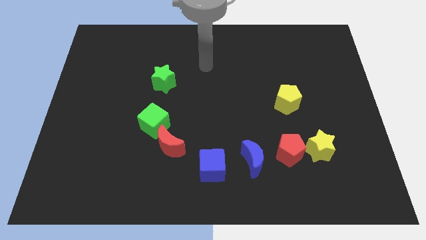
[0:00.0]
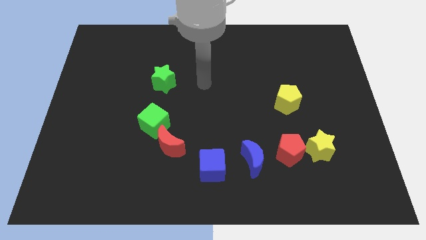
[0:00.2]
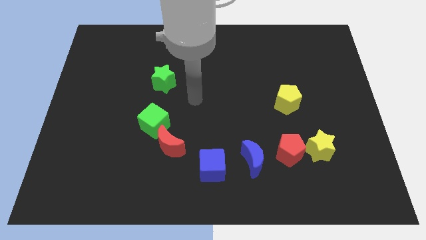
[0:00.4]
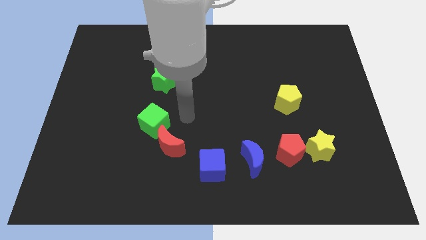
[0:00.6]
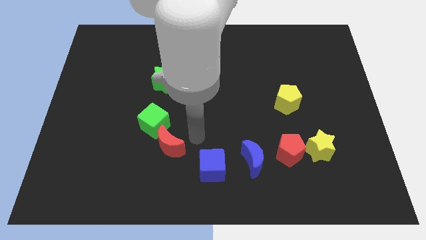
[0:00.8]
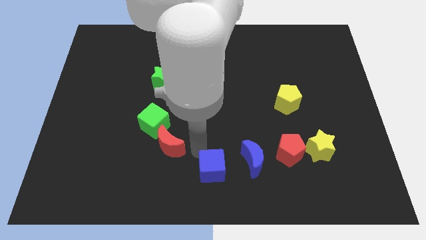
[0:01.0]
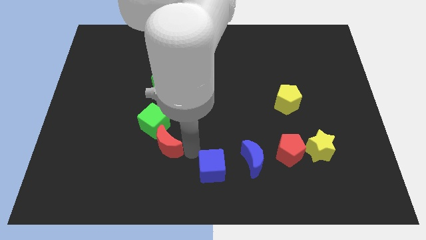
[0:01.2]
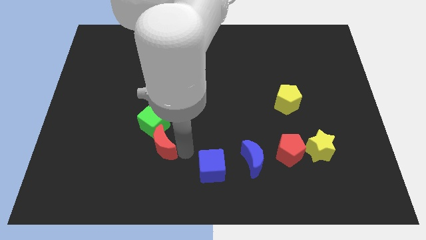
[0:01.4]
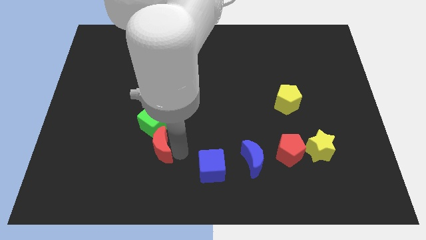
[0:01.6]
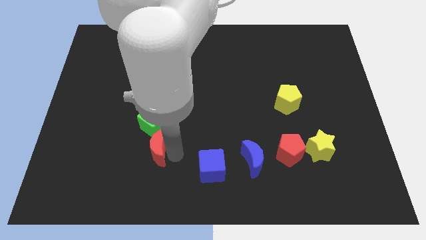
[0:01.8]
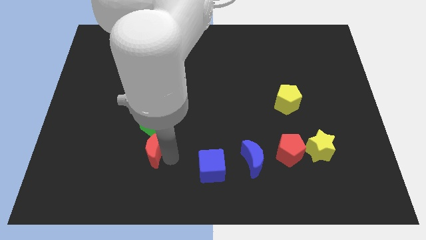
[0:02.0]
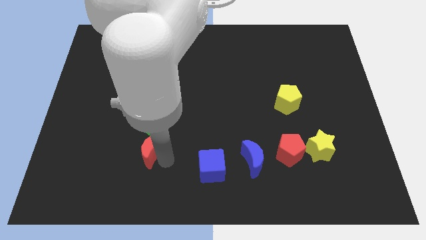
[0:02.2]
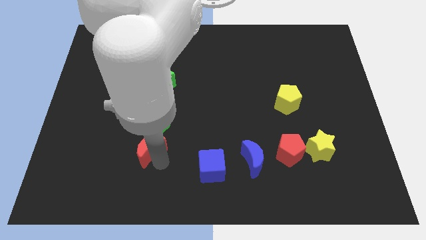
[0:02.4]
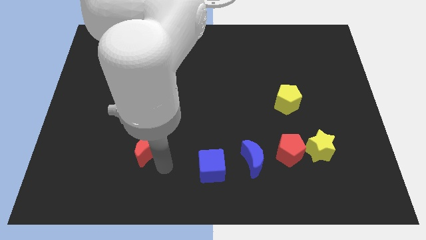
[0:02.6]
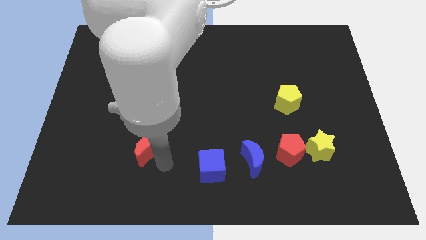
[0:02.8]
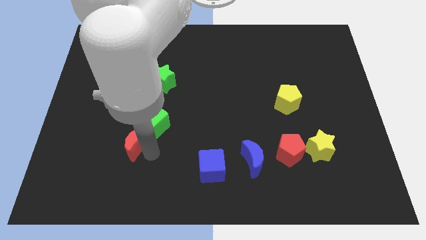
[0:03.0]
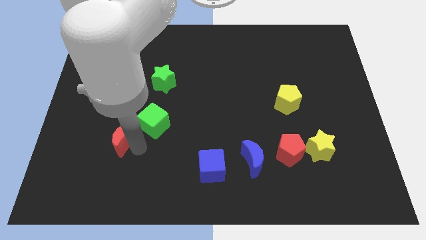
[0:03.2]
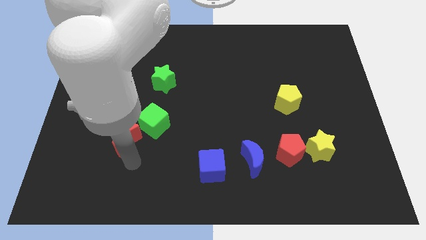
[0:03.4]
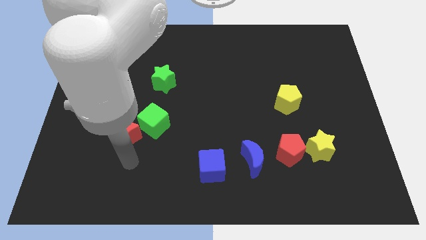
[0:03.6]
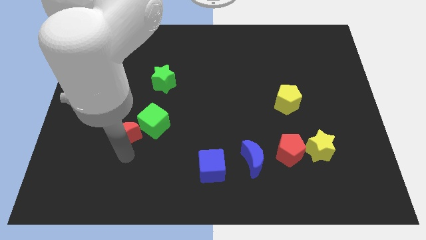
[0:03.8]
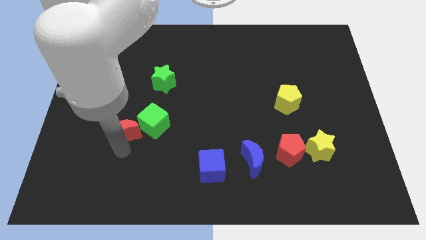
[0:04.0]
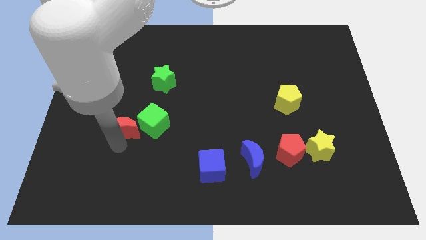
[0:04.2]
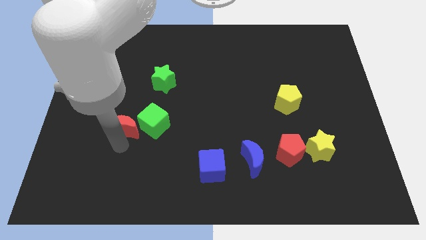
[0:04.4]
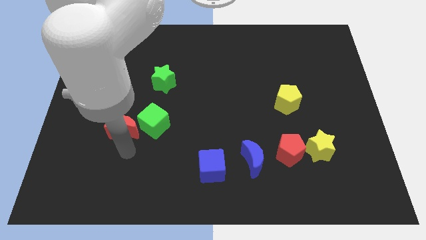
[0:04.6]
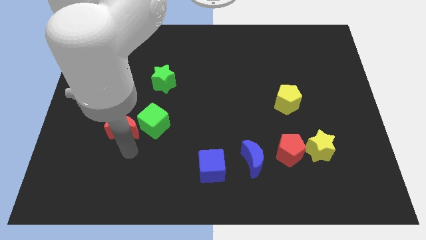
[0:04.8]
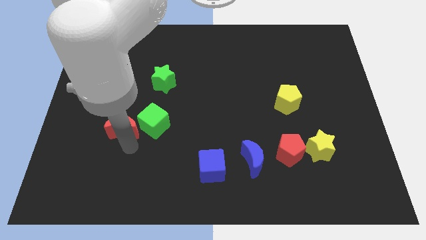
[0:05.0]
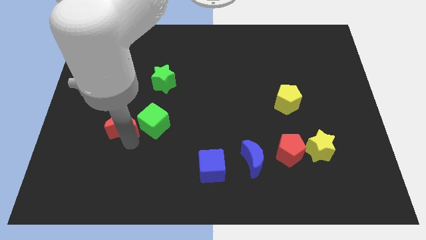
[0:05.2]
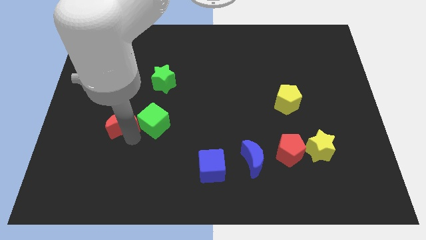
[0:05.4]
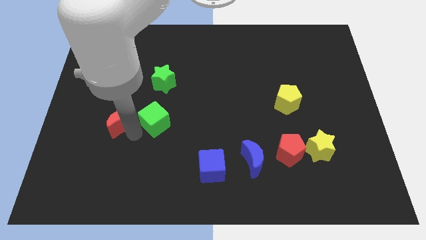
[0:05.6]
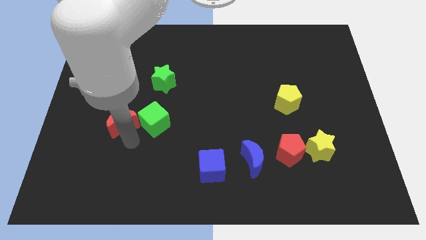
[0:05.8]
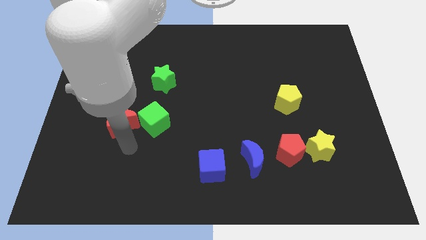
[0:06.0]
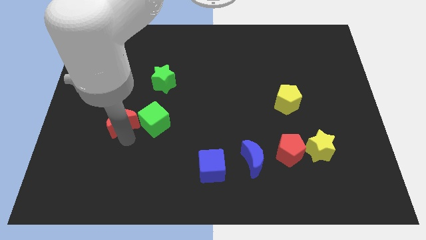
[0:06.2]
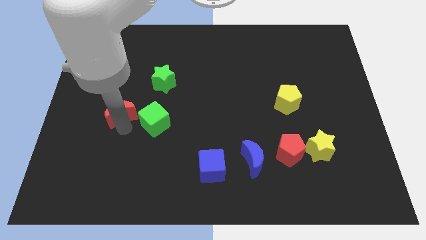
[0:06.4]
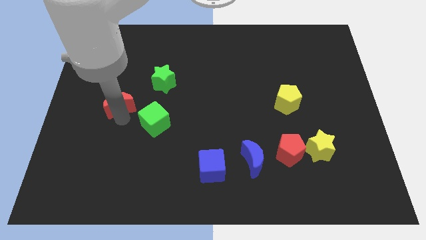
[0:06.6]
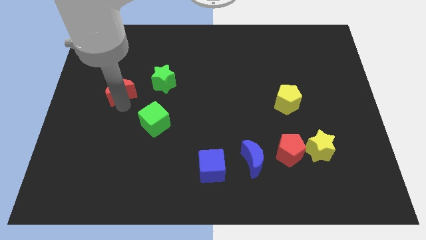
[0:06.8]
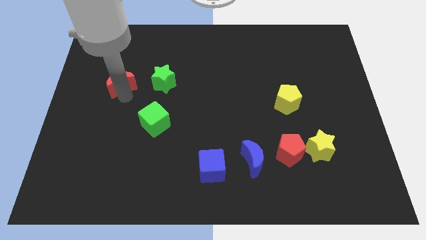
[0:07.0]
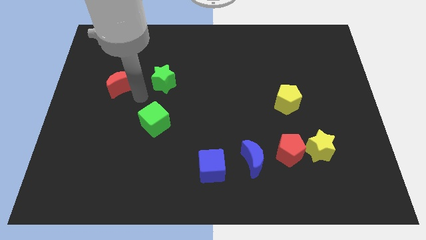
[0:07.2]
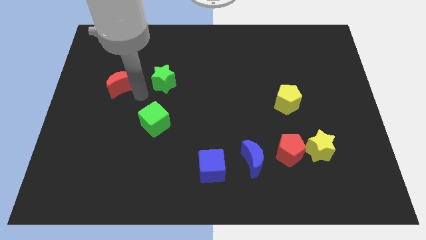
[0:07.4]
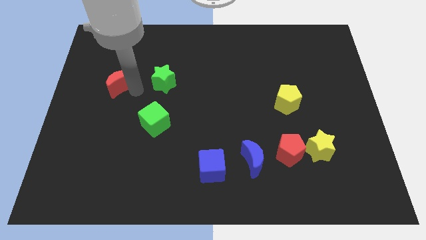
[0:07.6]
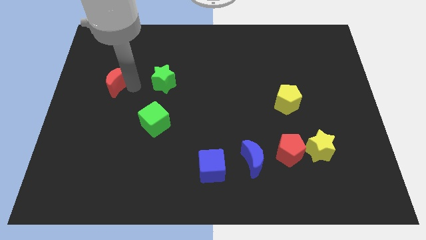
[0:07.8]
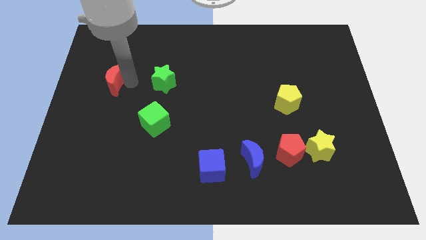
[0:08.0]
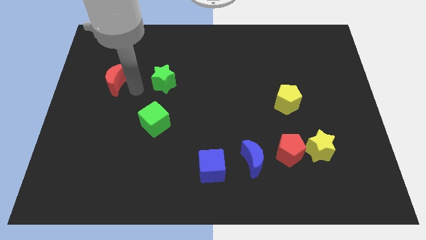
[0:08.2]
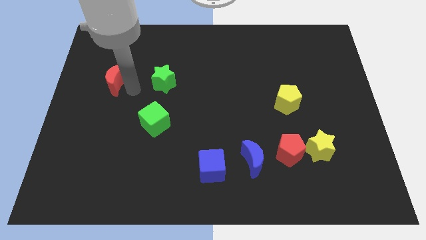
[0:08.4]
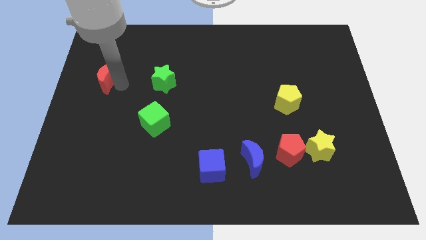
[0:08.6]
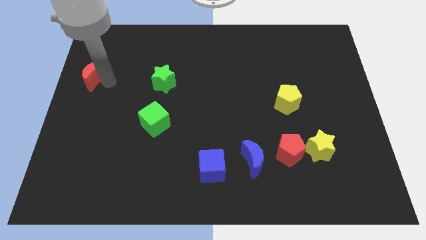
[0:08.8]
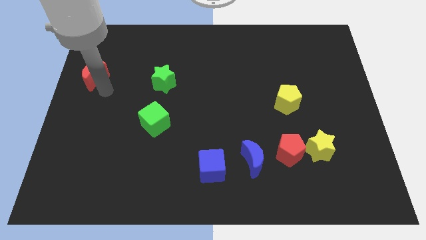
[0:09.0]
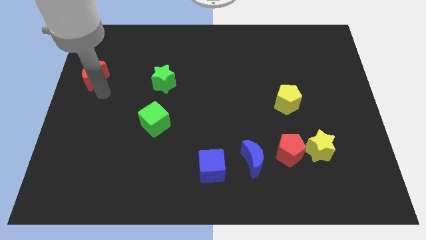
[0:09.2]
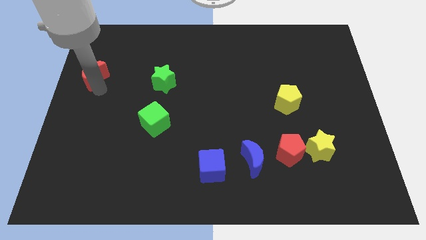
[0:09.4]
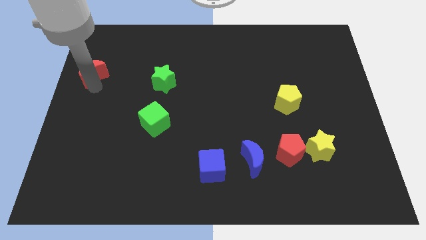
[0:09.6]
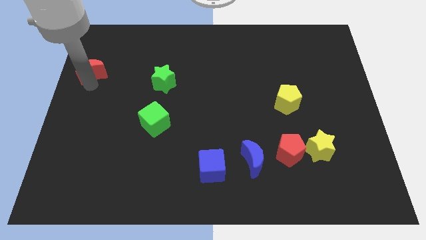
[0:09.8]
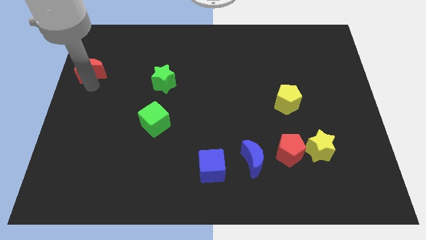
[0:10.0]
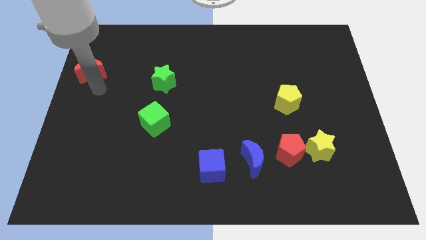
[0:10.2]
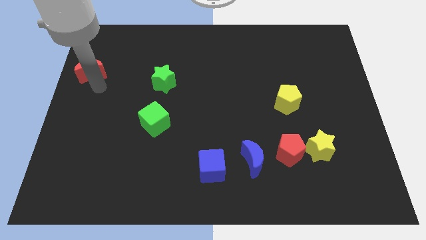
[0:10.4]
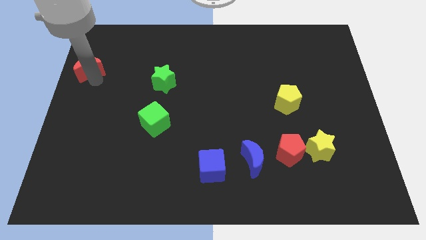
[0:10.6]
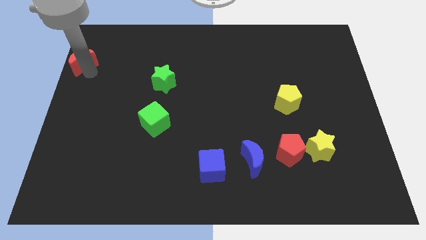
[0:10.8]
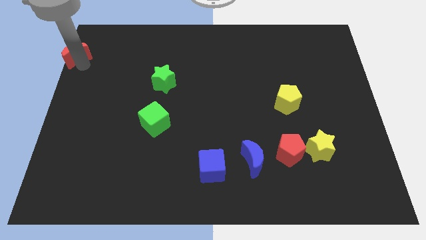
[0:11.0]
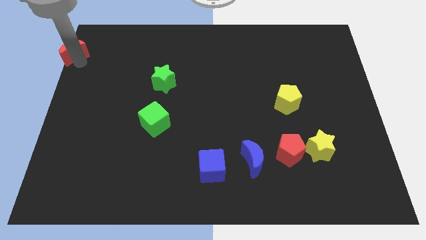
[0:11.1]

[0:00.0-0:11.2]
put the red moon to the top left of the board
